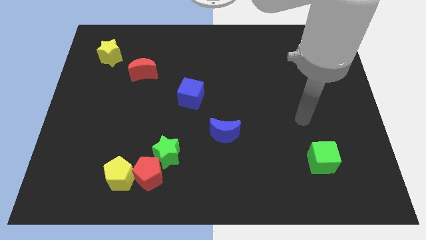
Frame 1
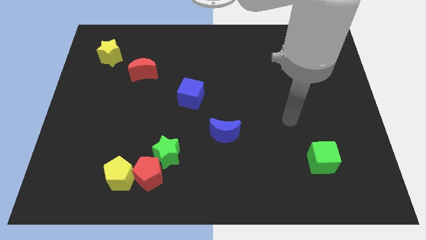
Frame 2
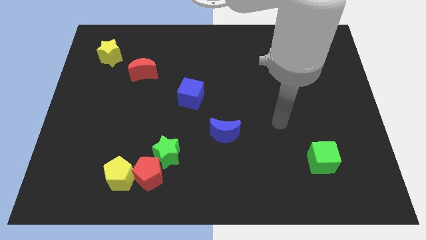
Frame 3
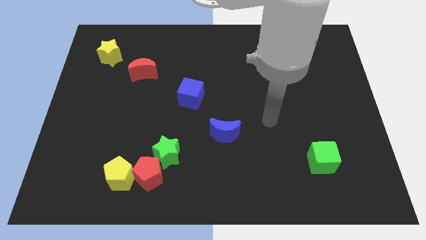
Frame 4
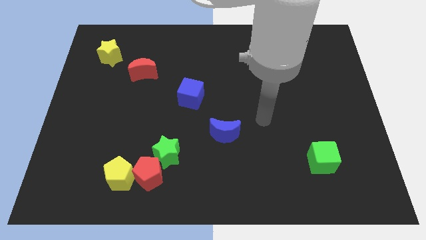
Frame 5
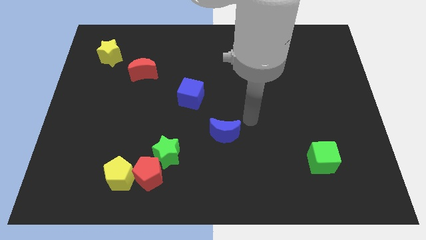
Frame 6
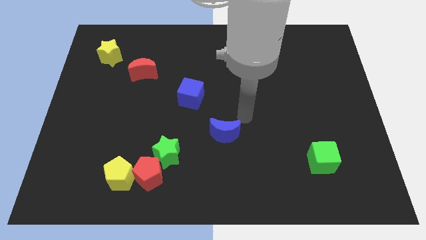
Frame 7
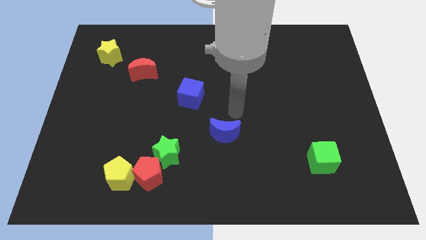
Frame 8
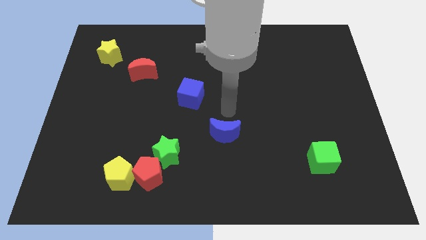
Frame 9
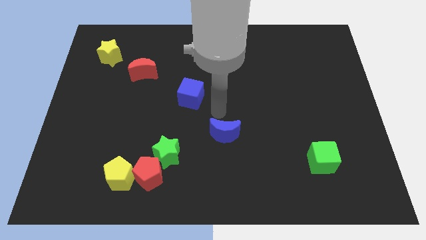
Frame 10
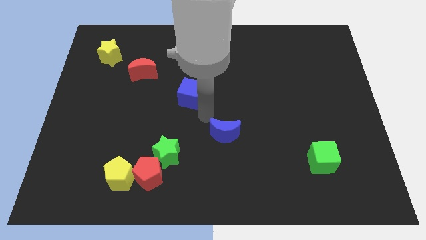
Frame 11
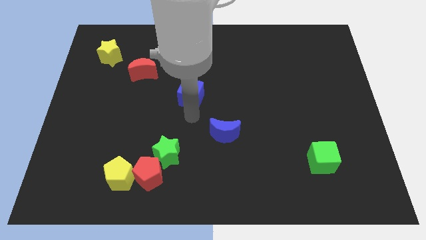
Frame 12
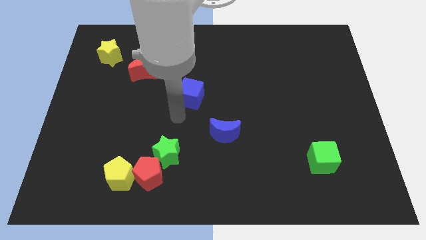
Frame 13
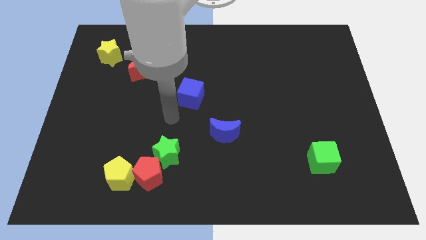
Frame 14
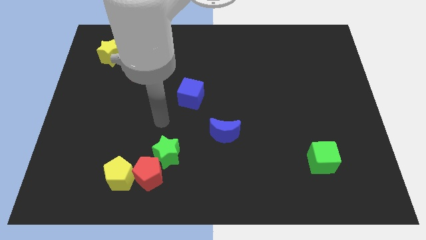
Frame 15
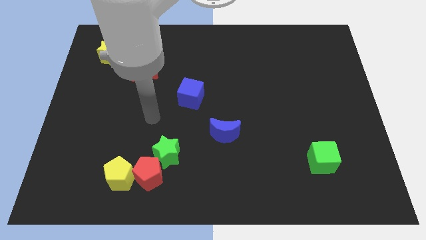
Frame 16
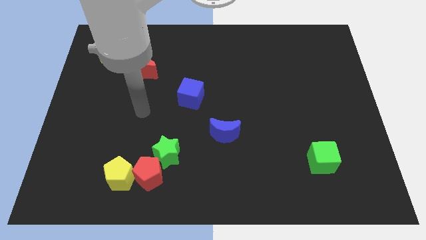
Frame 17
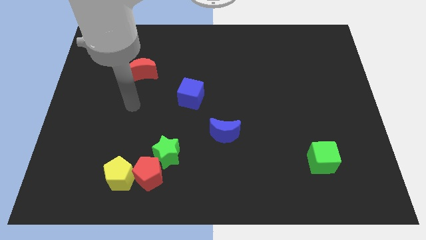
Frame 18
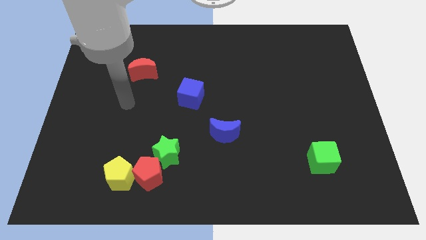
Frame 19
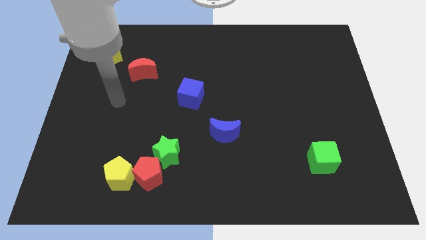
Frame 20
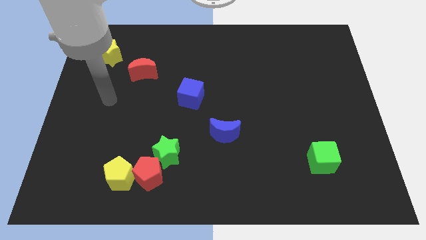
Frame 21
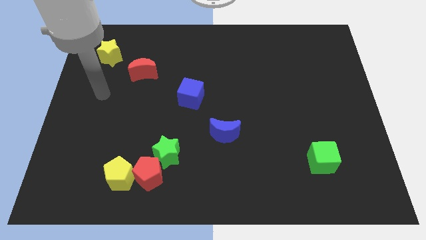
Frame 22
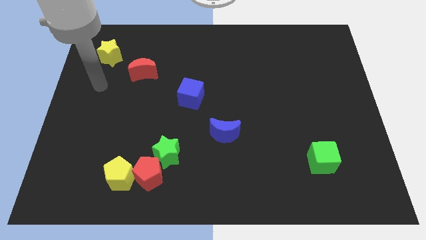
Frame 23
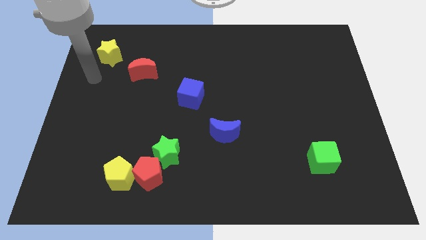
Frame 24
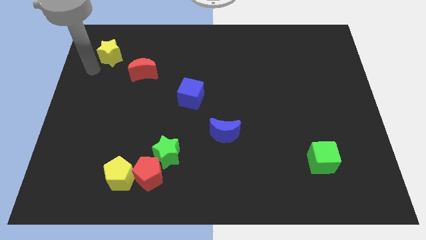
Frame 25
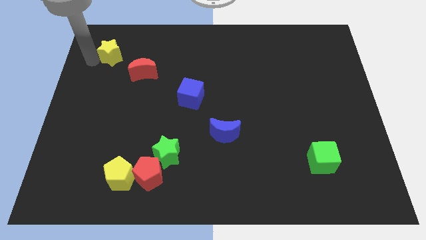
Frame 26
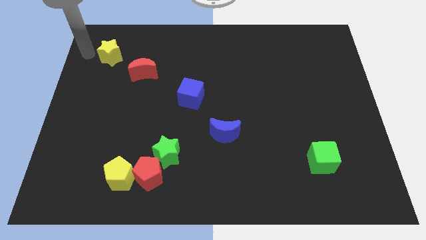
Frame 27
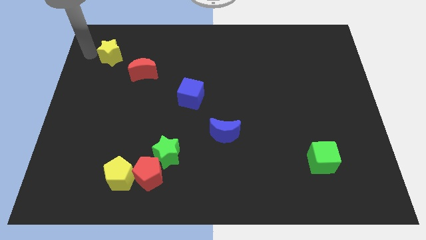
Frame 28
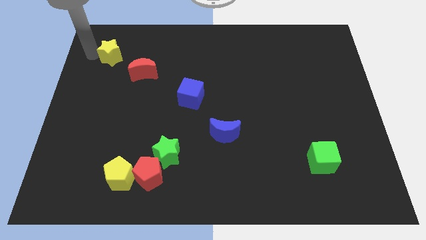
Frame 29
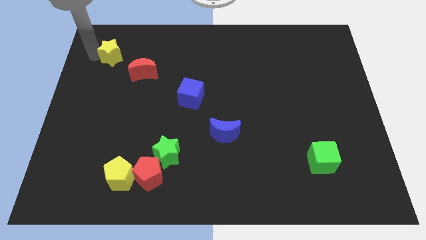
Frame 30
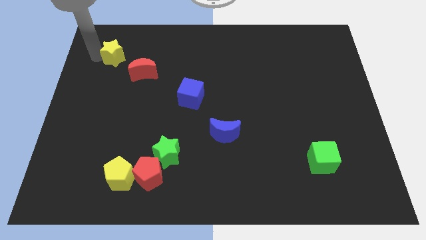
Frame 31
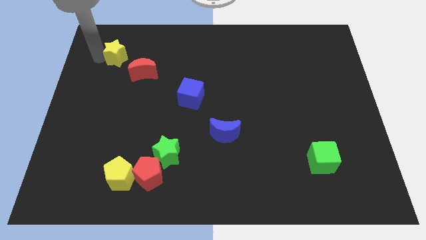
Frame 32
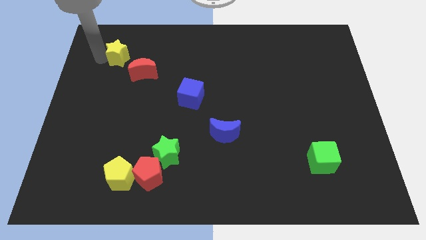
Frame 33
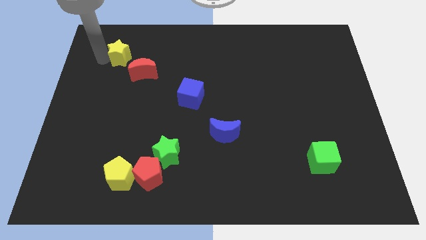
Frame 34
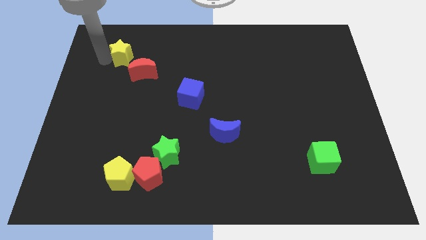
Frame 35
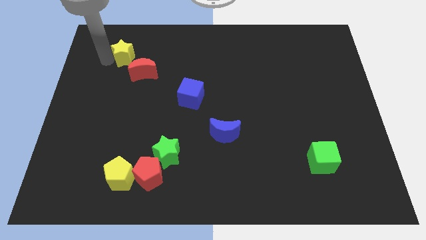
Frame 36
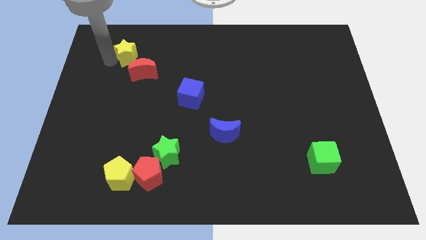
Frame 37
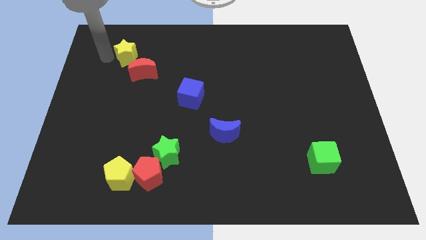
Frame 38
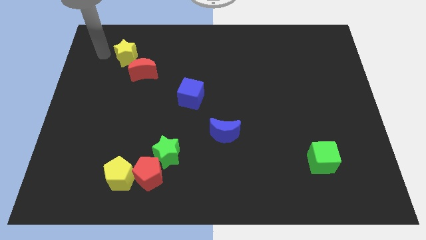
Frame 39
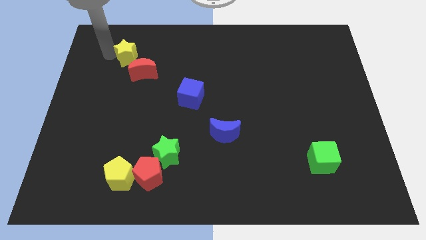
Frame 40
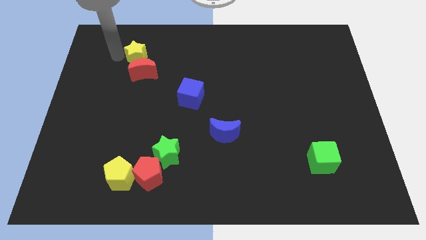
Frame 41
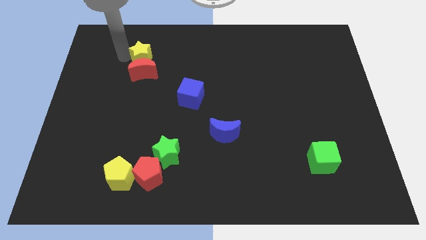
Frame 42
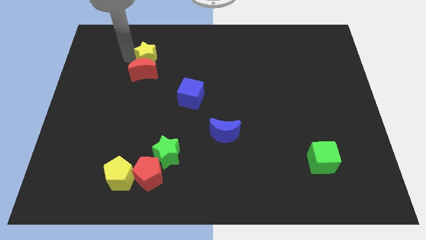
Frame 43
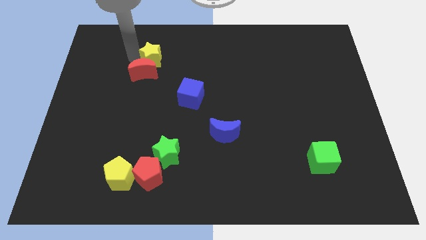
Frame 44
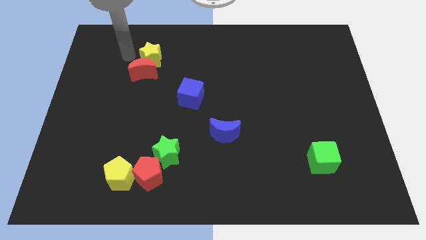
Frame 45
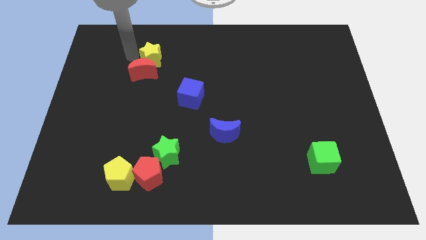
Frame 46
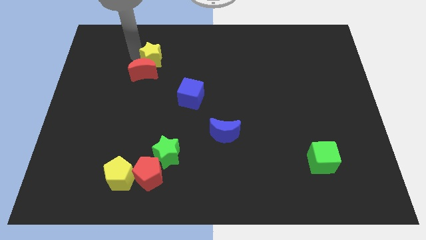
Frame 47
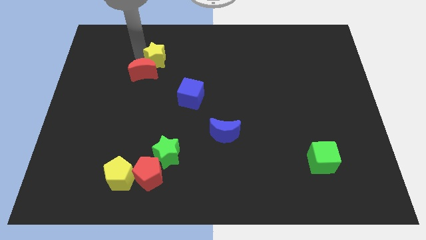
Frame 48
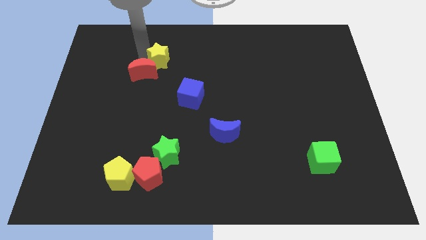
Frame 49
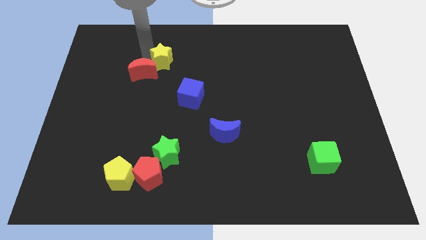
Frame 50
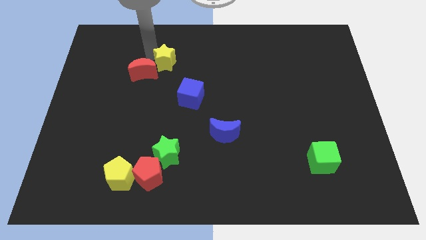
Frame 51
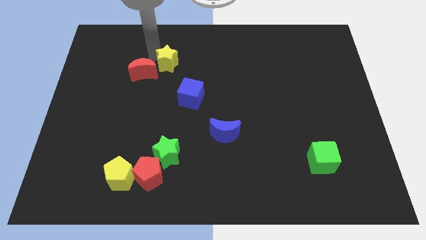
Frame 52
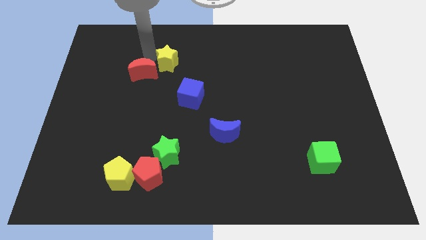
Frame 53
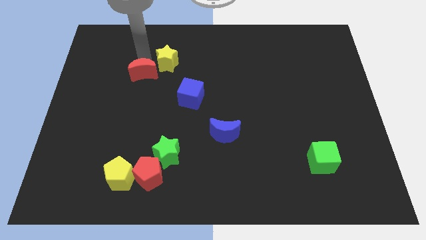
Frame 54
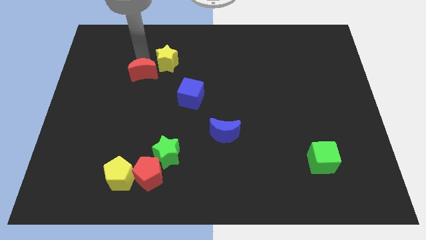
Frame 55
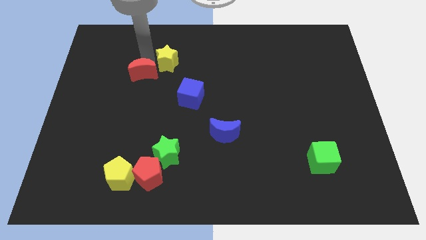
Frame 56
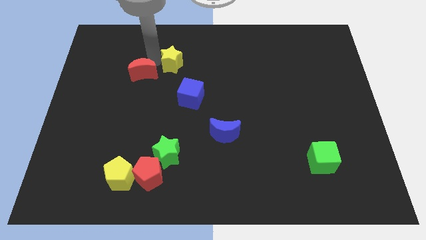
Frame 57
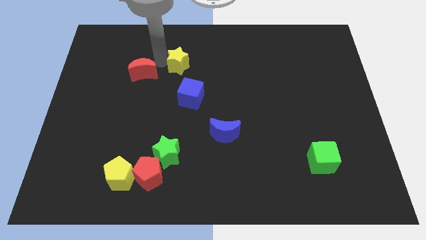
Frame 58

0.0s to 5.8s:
put the yellow star to the top side of the blue cube

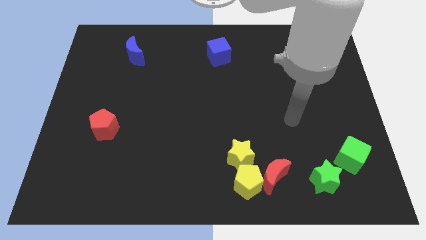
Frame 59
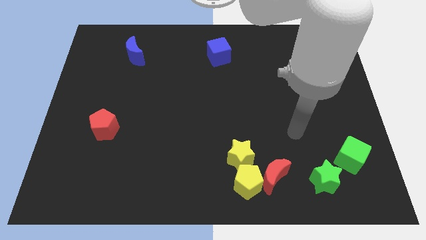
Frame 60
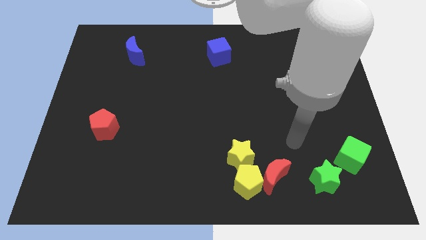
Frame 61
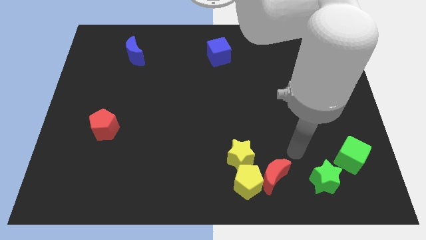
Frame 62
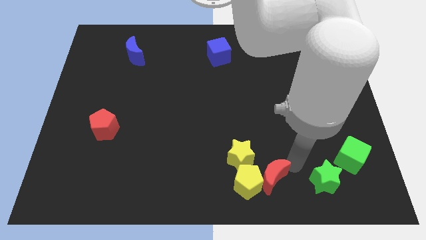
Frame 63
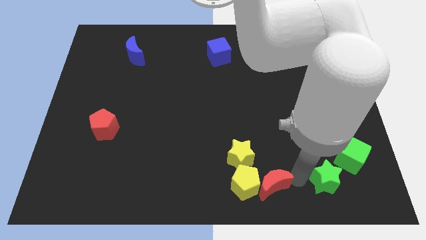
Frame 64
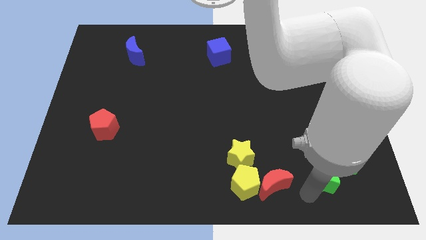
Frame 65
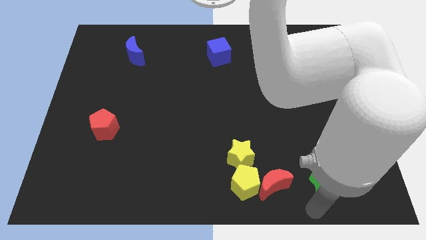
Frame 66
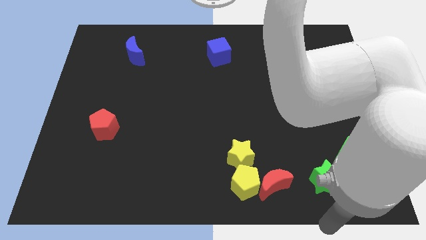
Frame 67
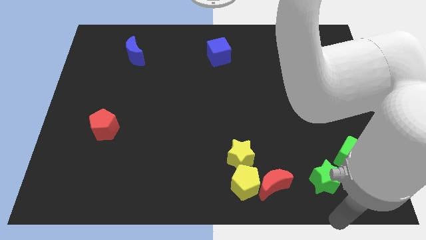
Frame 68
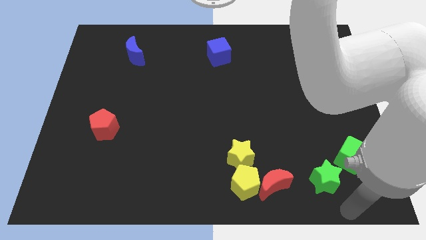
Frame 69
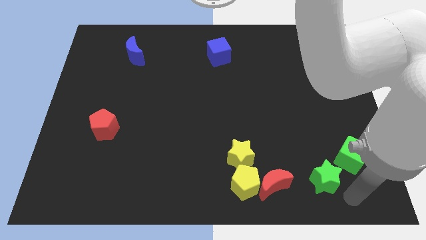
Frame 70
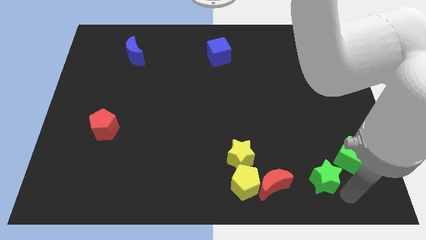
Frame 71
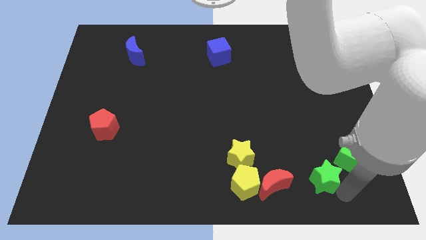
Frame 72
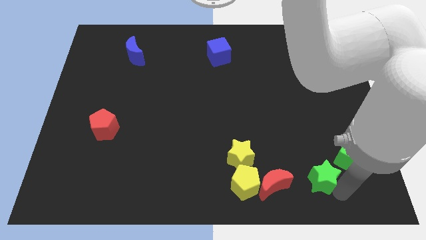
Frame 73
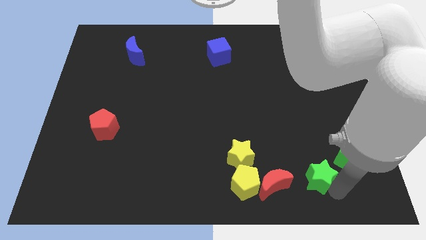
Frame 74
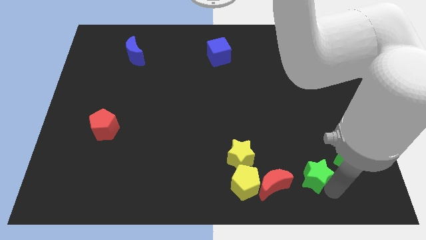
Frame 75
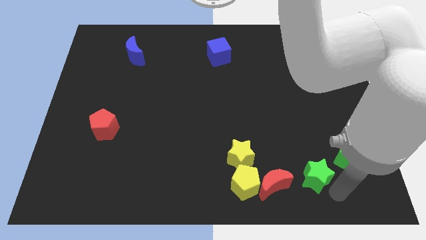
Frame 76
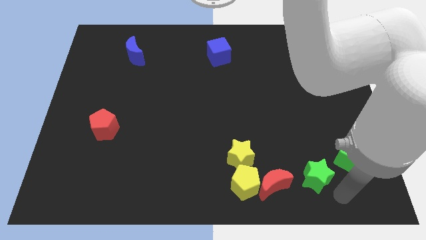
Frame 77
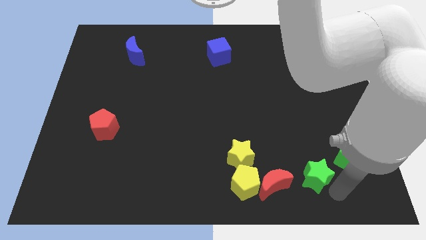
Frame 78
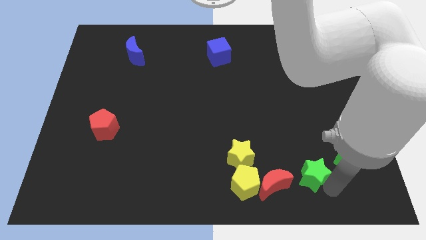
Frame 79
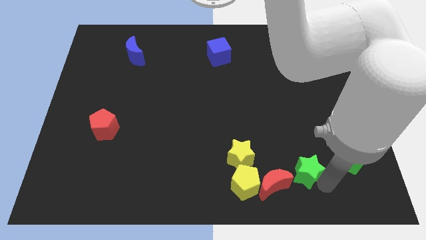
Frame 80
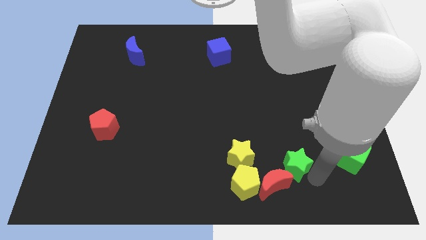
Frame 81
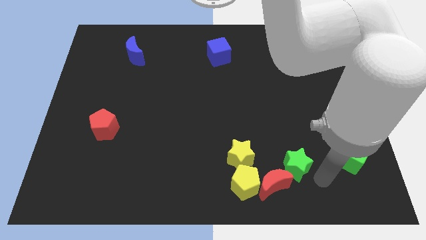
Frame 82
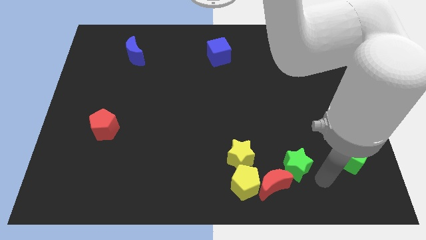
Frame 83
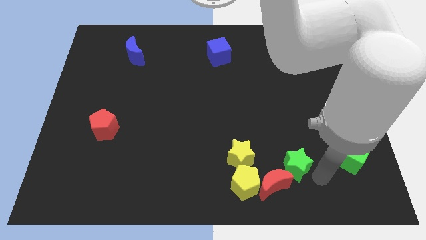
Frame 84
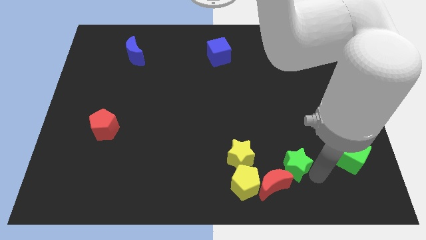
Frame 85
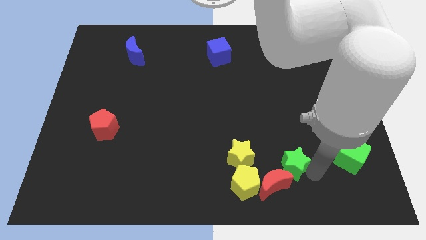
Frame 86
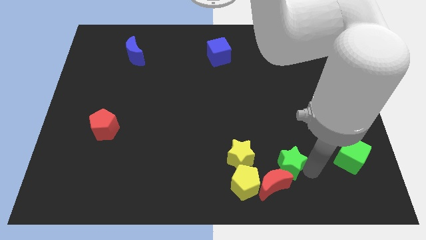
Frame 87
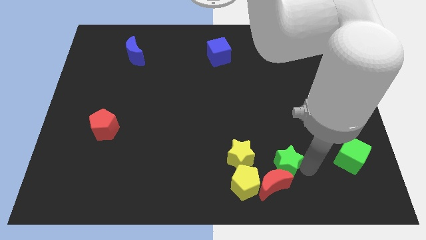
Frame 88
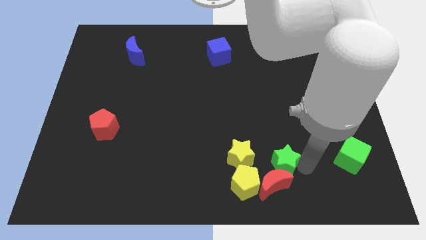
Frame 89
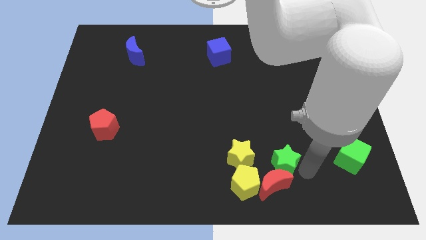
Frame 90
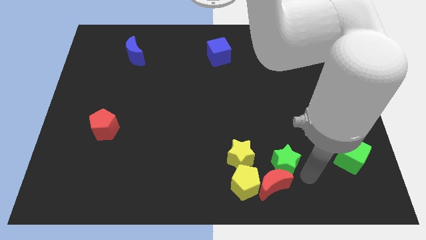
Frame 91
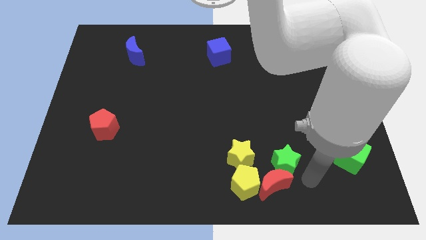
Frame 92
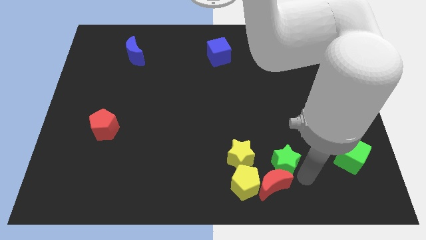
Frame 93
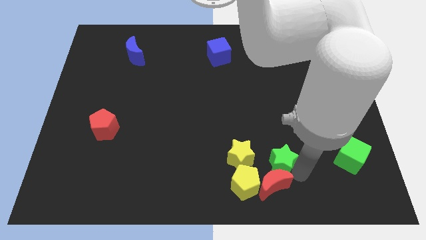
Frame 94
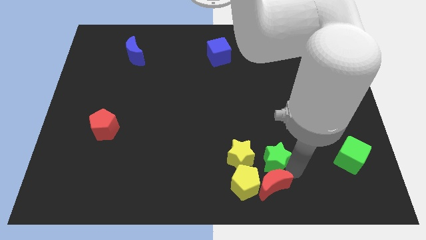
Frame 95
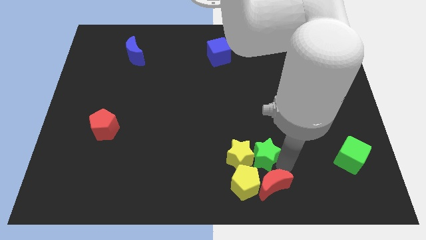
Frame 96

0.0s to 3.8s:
move the green star to the top of the yellow pentagon
